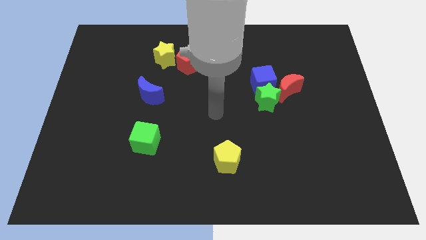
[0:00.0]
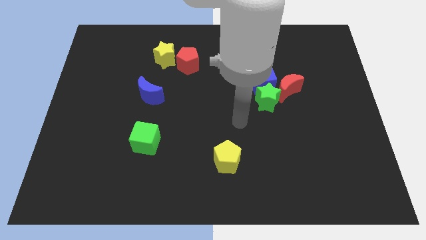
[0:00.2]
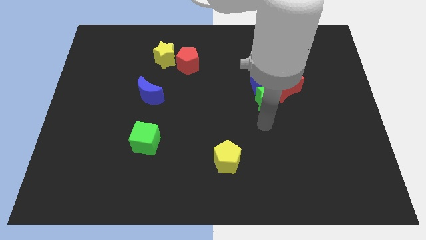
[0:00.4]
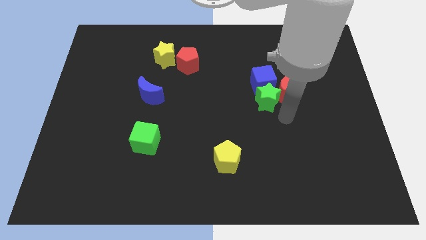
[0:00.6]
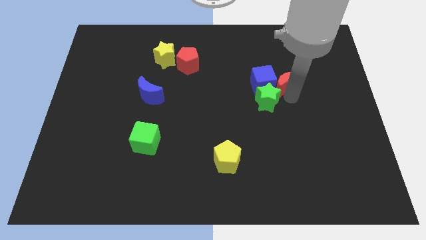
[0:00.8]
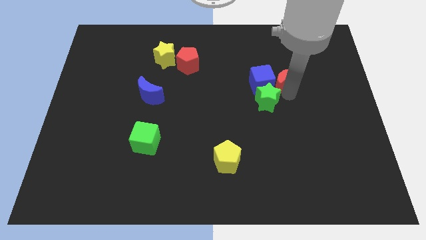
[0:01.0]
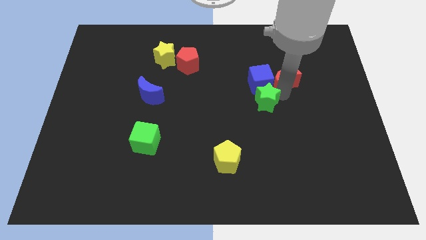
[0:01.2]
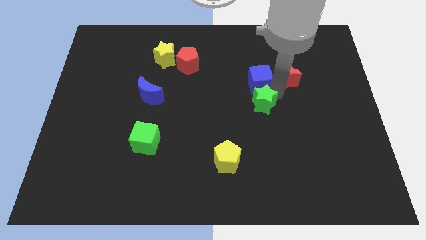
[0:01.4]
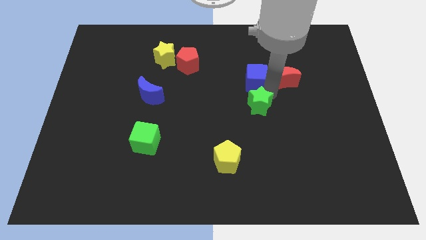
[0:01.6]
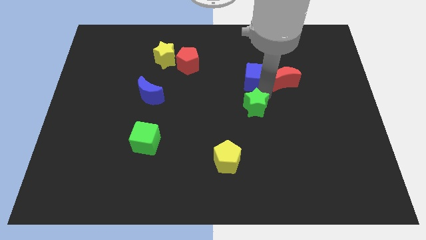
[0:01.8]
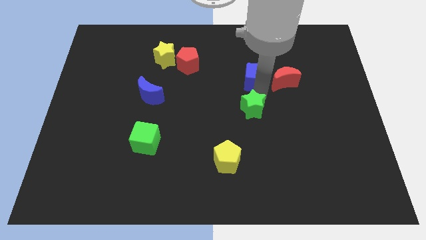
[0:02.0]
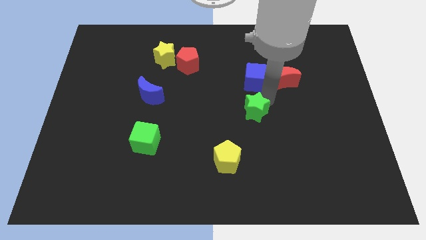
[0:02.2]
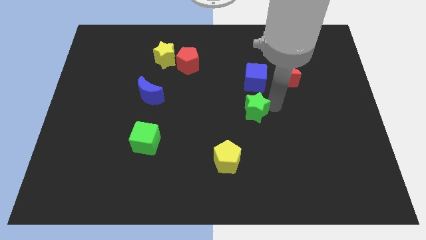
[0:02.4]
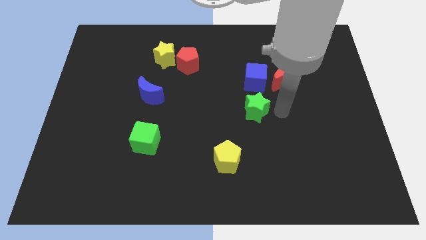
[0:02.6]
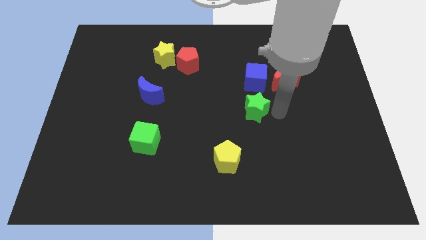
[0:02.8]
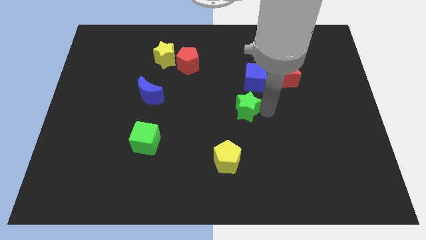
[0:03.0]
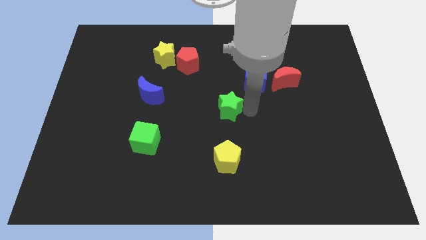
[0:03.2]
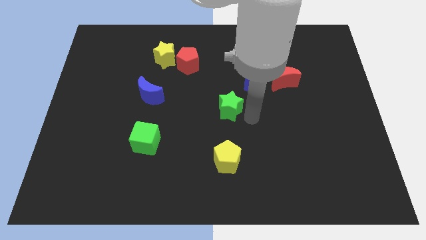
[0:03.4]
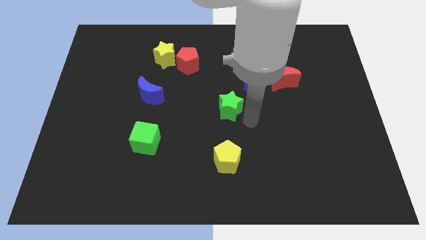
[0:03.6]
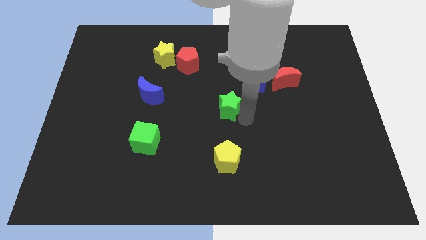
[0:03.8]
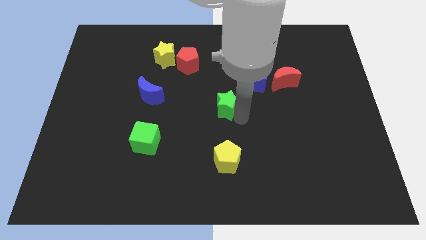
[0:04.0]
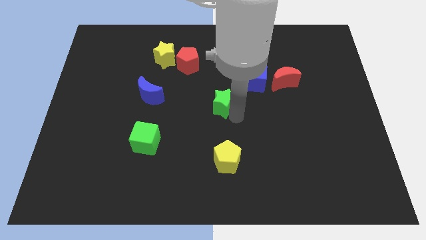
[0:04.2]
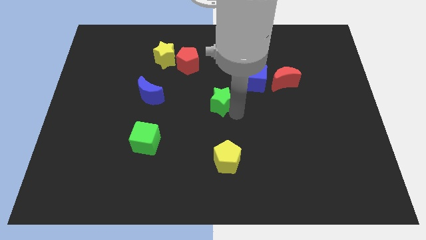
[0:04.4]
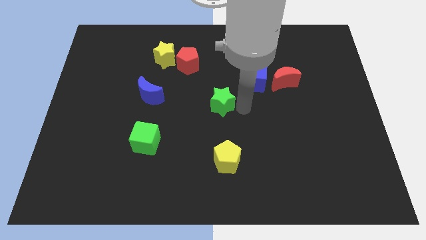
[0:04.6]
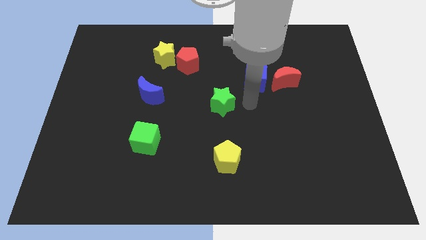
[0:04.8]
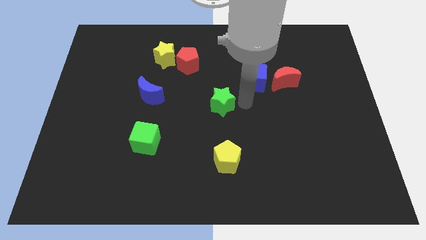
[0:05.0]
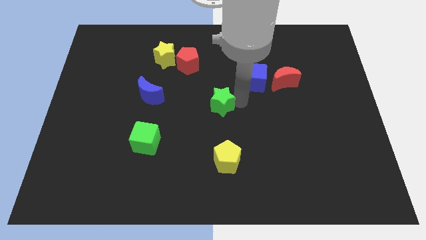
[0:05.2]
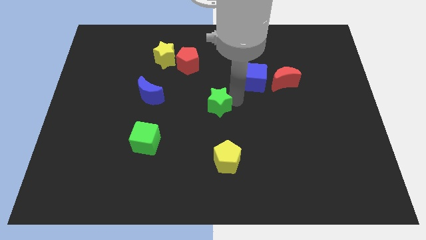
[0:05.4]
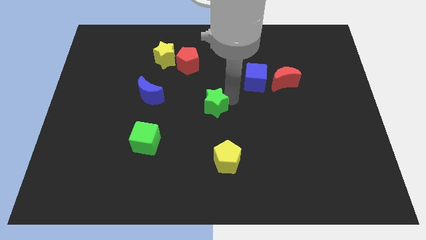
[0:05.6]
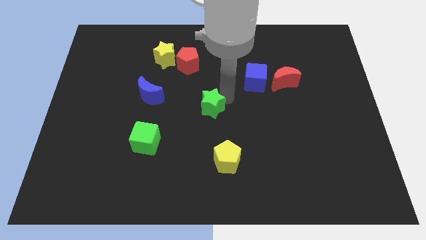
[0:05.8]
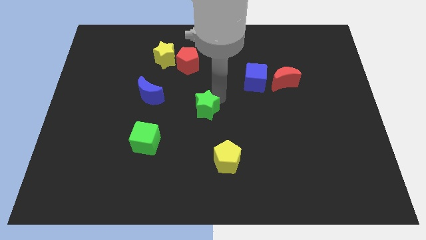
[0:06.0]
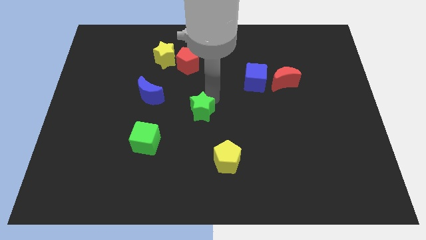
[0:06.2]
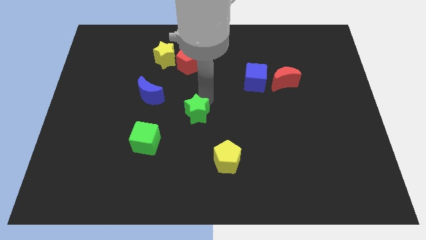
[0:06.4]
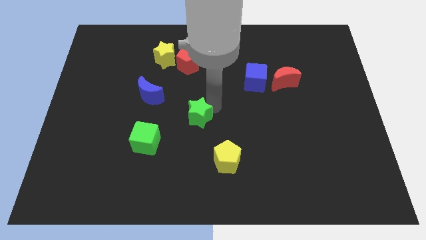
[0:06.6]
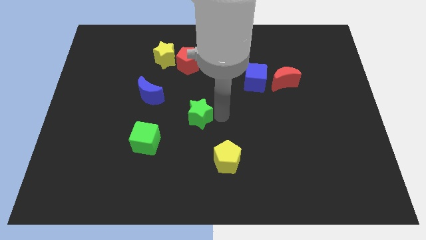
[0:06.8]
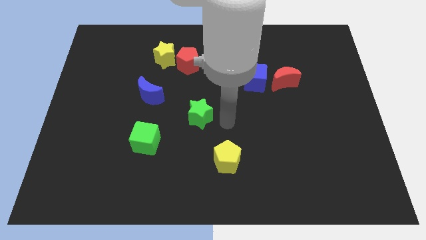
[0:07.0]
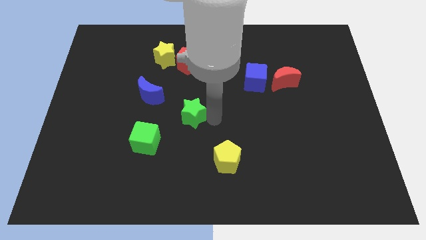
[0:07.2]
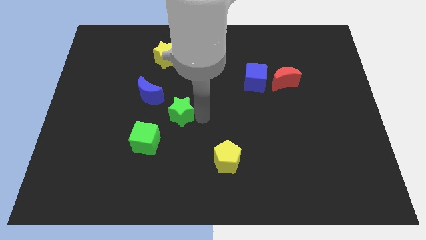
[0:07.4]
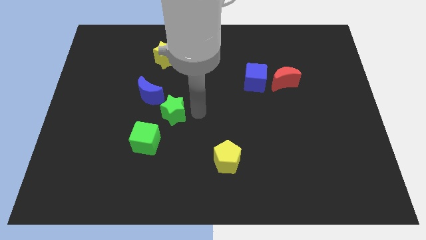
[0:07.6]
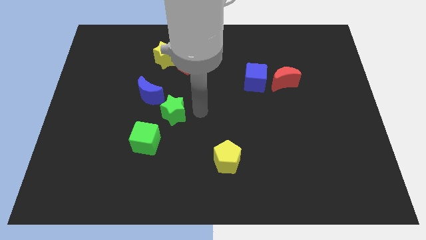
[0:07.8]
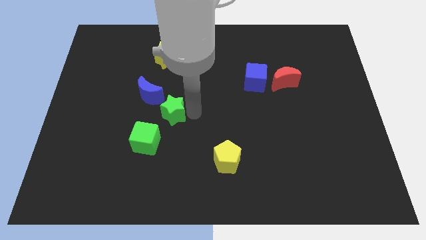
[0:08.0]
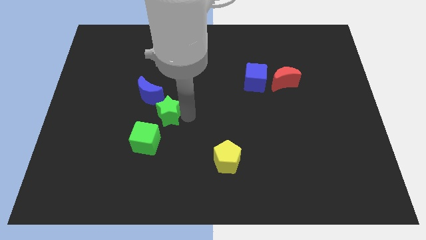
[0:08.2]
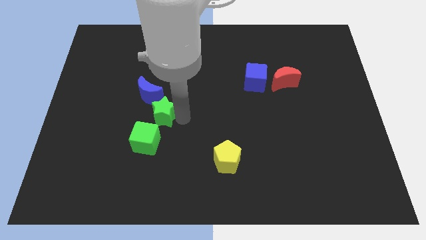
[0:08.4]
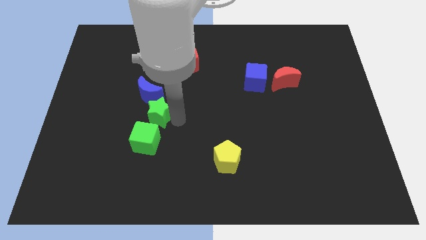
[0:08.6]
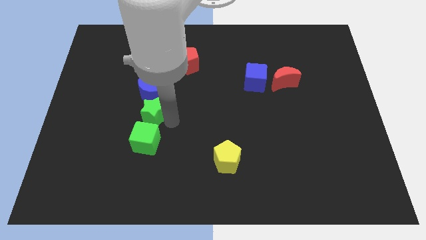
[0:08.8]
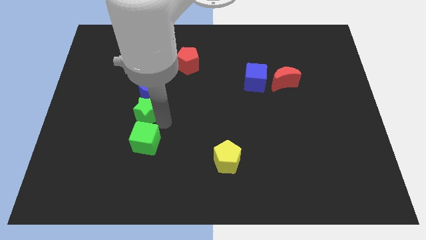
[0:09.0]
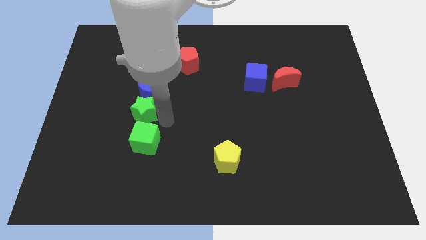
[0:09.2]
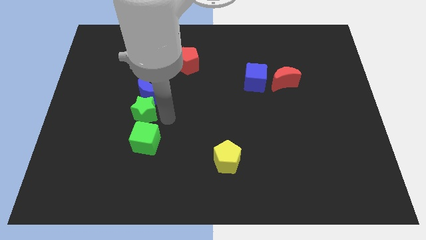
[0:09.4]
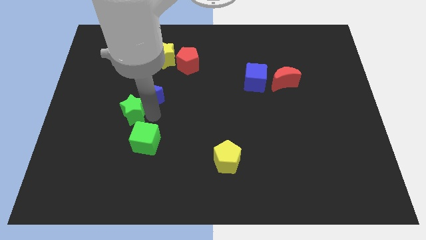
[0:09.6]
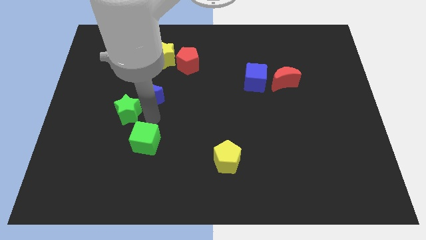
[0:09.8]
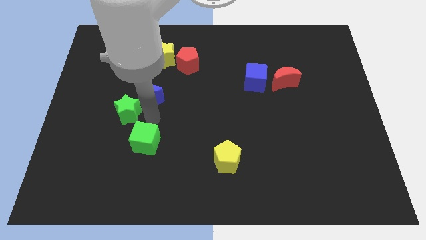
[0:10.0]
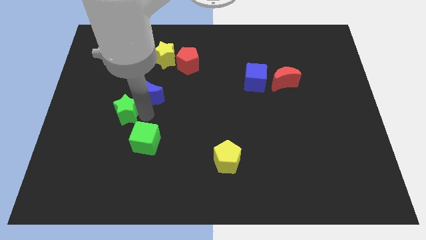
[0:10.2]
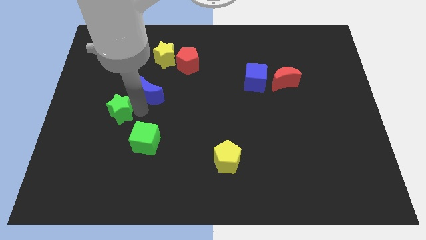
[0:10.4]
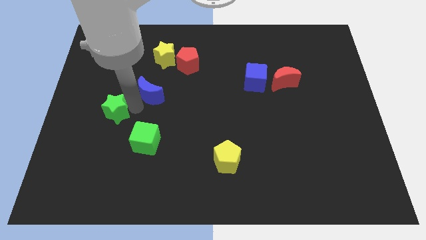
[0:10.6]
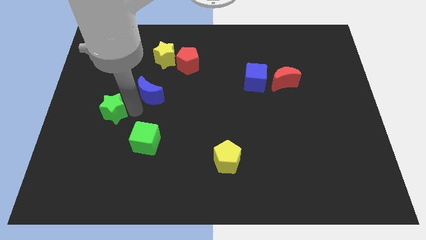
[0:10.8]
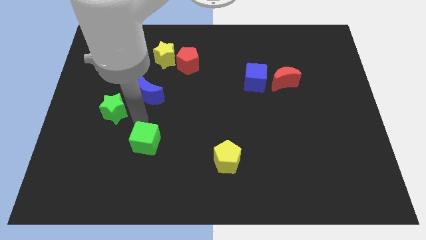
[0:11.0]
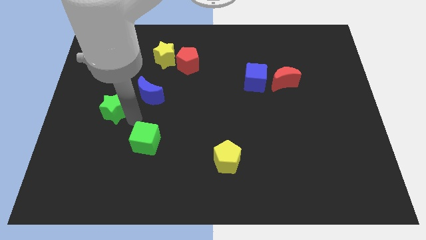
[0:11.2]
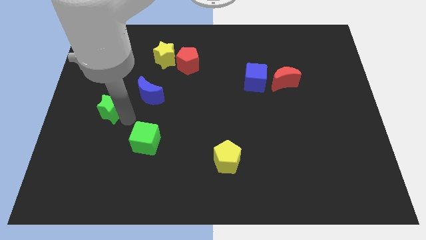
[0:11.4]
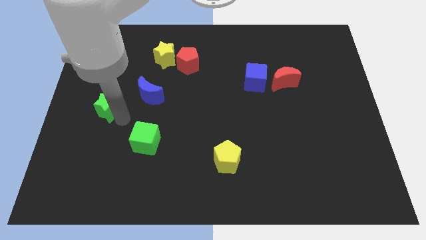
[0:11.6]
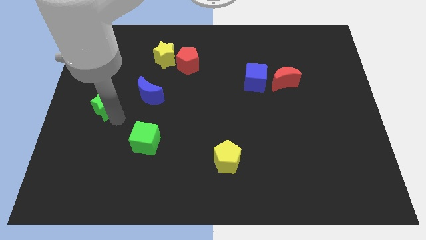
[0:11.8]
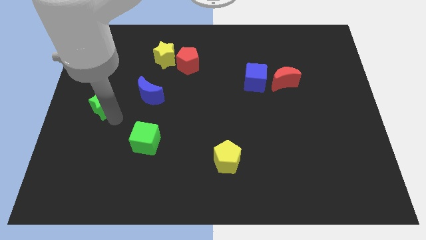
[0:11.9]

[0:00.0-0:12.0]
slide the green star to the center left
